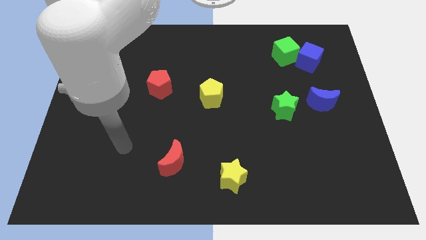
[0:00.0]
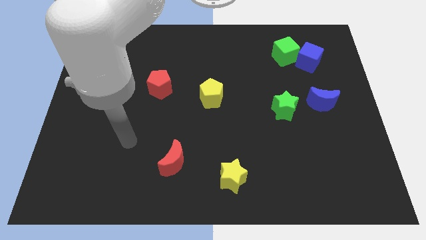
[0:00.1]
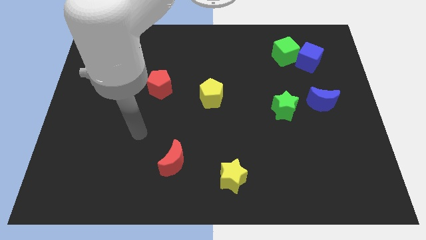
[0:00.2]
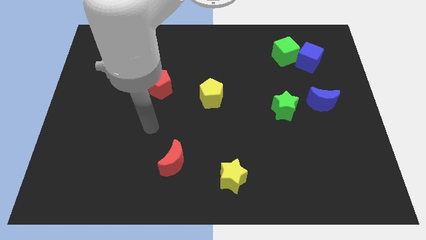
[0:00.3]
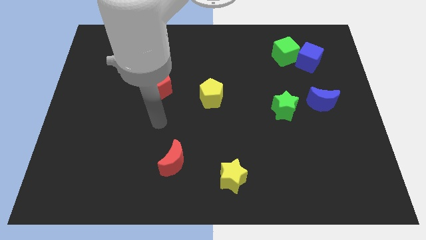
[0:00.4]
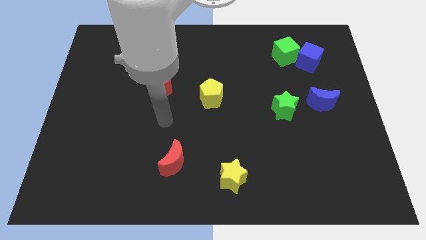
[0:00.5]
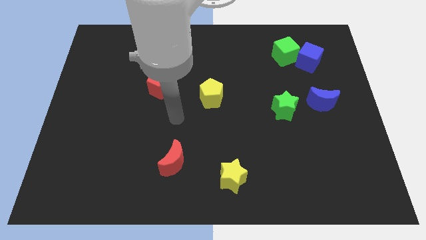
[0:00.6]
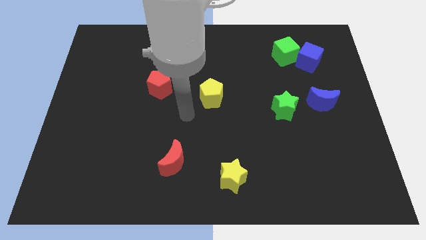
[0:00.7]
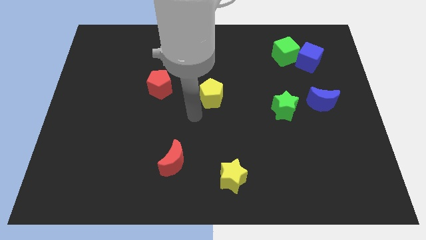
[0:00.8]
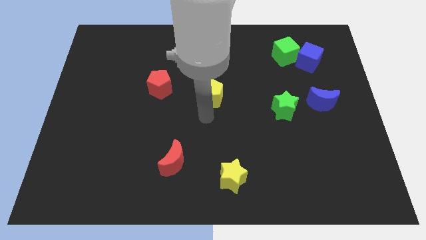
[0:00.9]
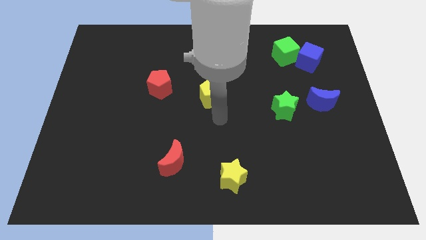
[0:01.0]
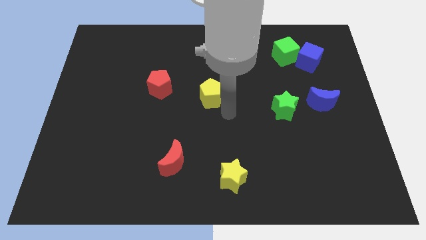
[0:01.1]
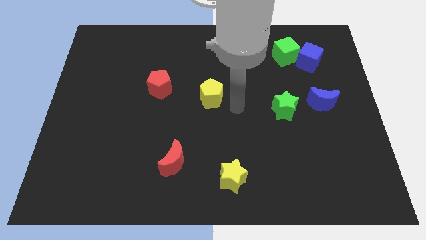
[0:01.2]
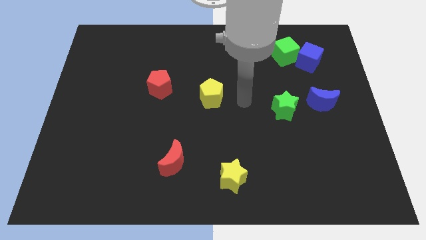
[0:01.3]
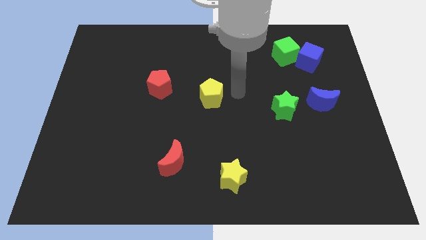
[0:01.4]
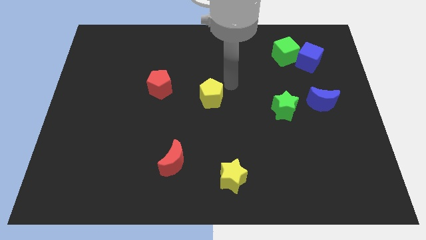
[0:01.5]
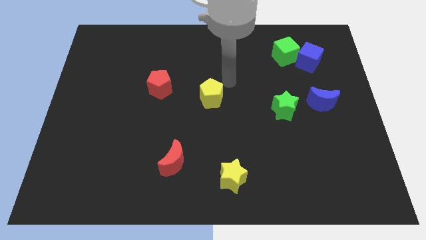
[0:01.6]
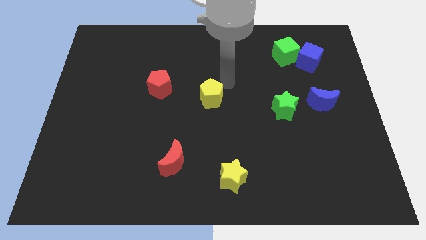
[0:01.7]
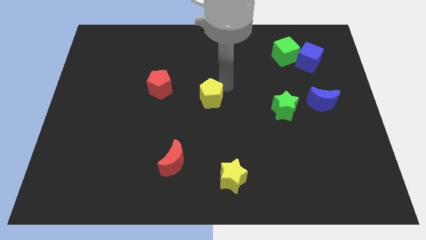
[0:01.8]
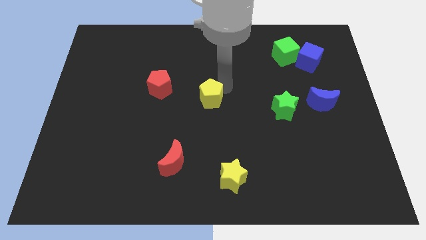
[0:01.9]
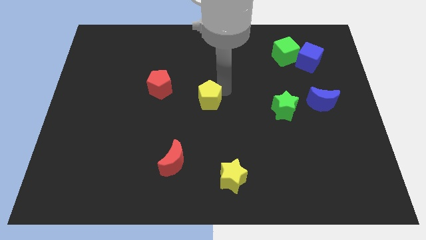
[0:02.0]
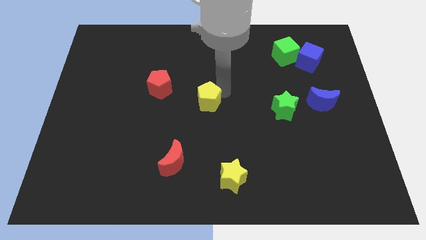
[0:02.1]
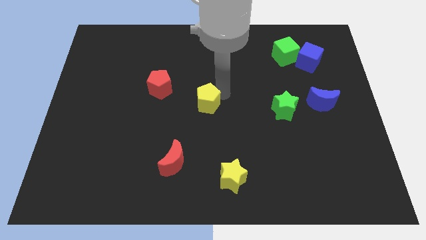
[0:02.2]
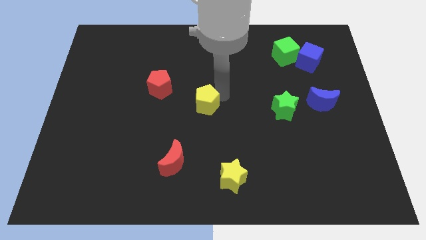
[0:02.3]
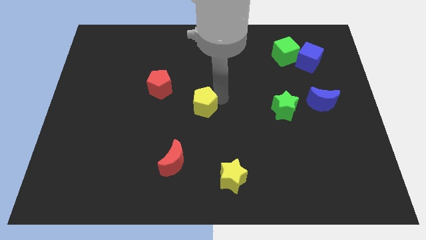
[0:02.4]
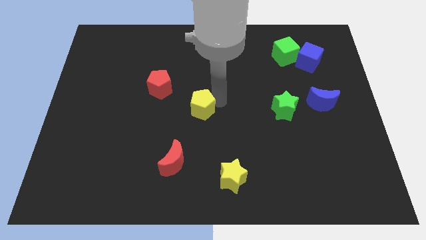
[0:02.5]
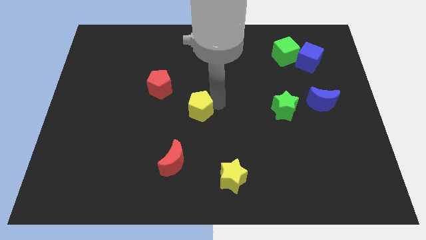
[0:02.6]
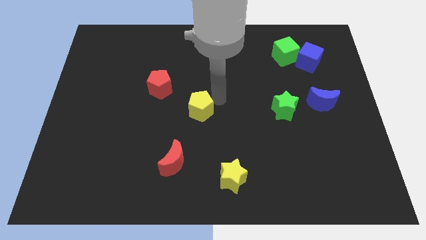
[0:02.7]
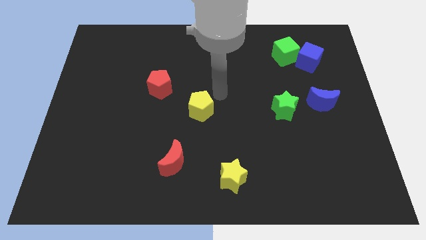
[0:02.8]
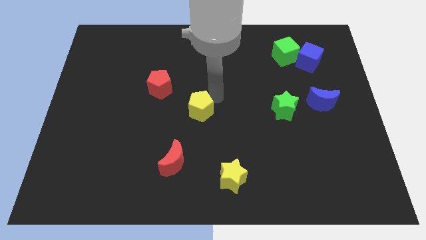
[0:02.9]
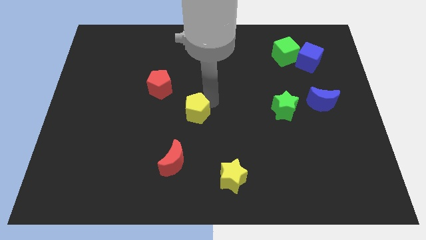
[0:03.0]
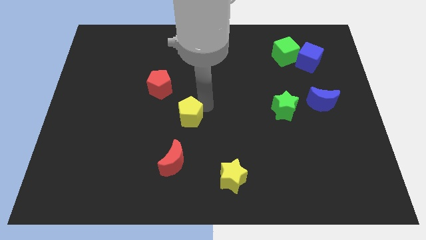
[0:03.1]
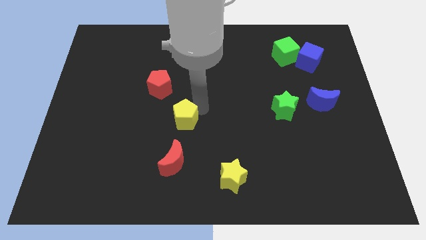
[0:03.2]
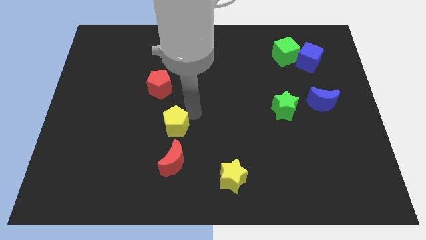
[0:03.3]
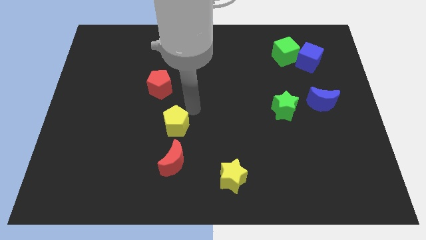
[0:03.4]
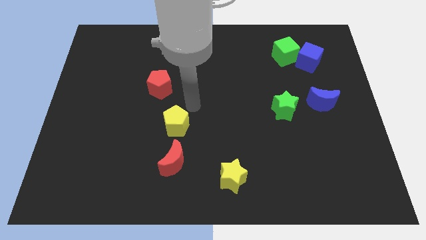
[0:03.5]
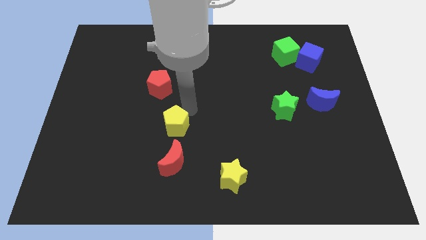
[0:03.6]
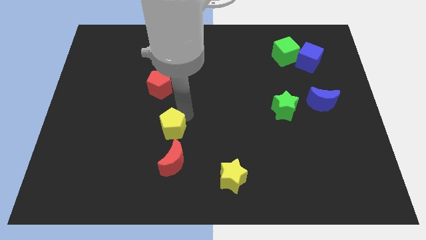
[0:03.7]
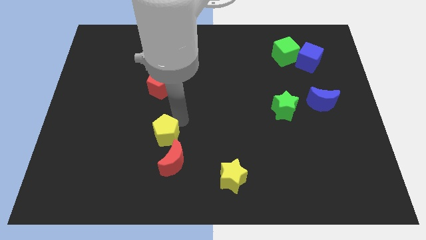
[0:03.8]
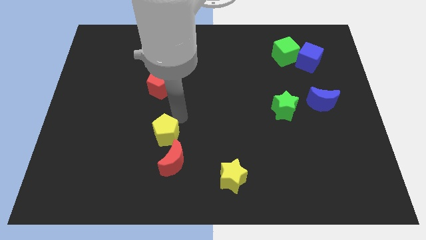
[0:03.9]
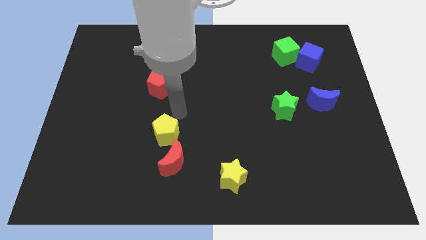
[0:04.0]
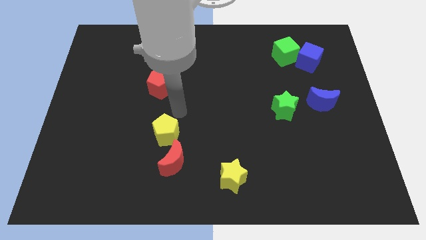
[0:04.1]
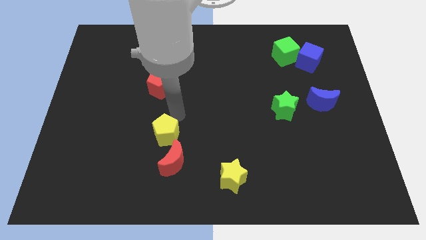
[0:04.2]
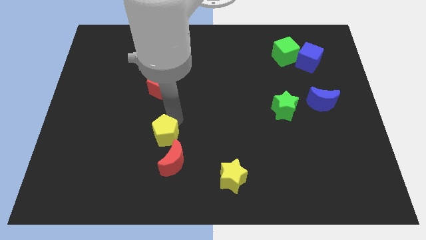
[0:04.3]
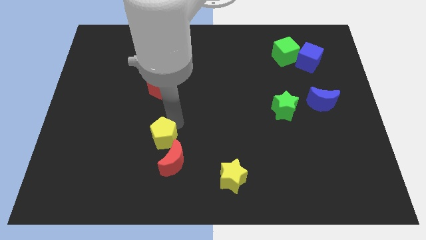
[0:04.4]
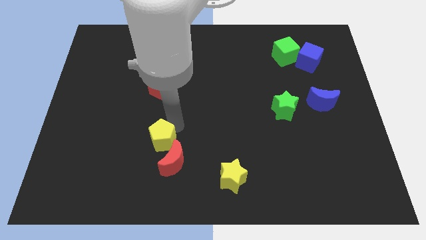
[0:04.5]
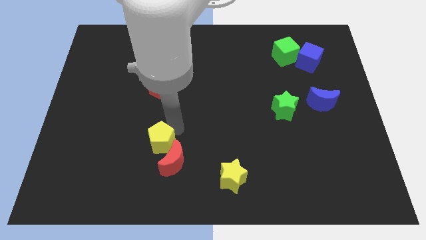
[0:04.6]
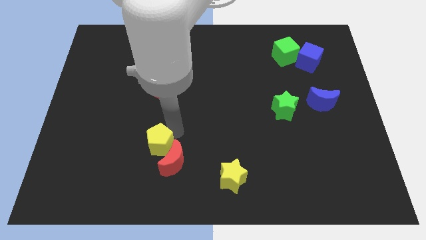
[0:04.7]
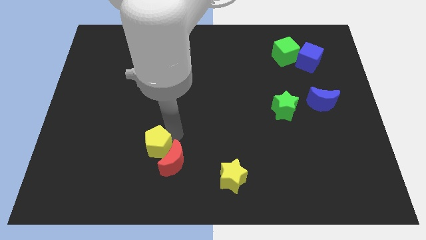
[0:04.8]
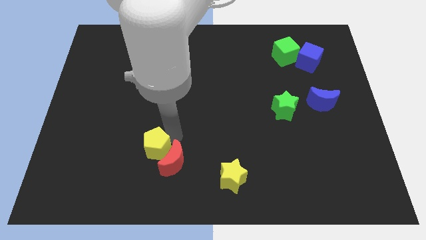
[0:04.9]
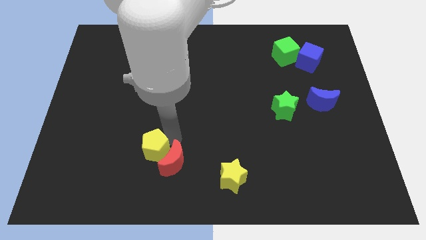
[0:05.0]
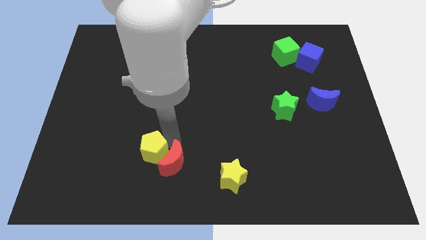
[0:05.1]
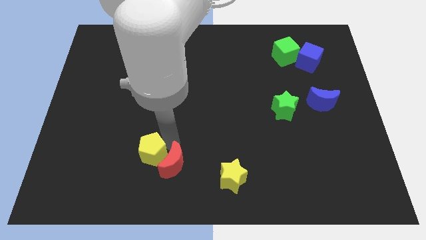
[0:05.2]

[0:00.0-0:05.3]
slide the yellow pentagon down and then left

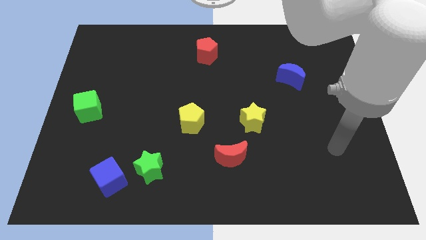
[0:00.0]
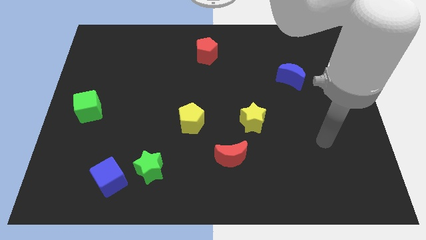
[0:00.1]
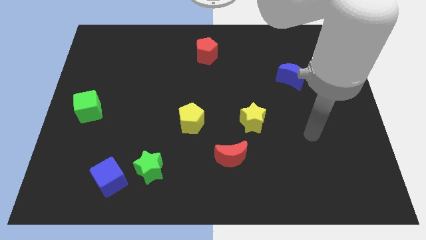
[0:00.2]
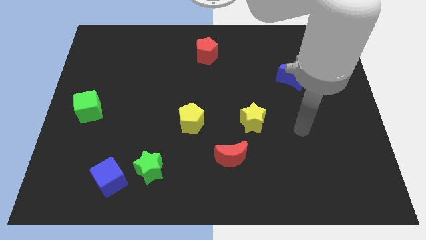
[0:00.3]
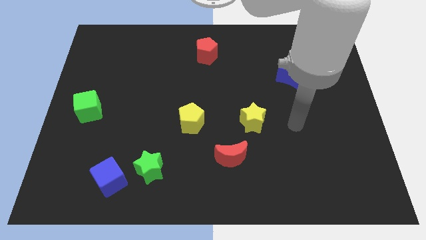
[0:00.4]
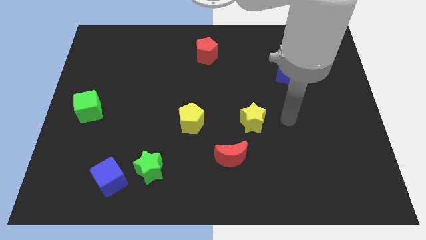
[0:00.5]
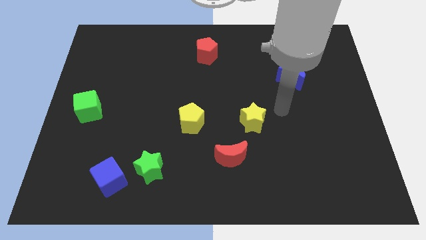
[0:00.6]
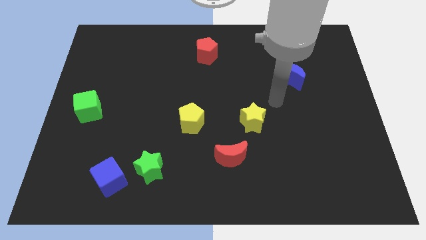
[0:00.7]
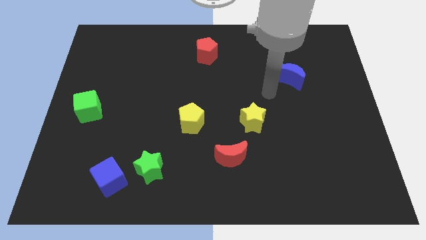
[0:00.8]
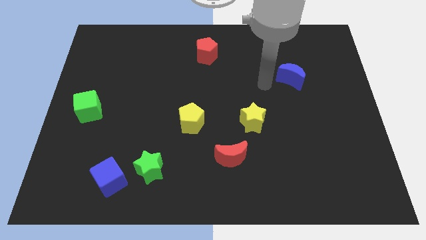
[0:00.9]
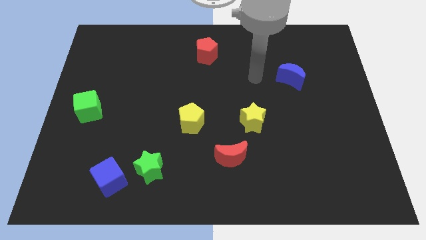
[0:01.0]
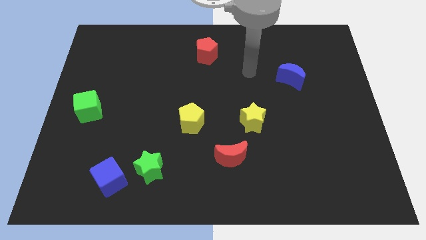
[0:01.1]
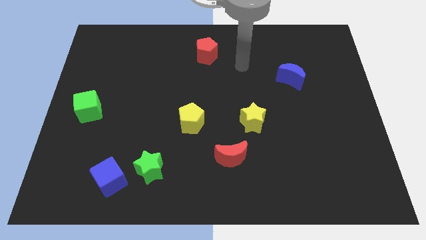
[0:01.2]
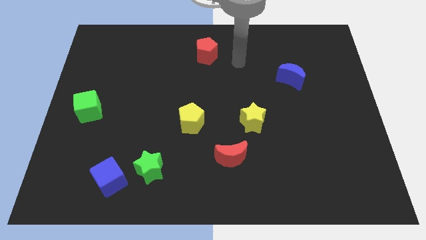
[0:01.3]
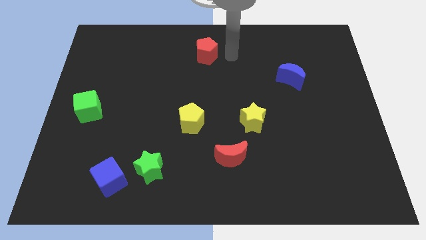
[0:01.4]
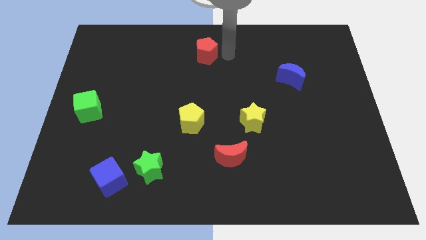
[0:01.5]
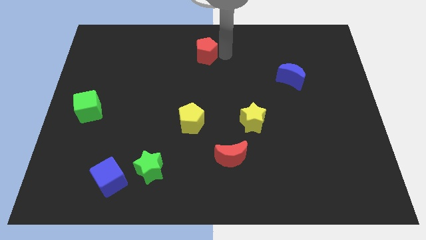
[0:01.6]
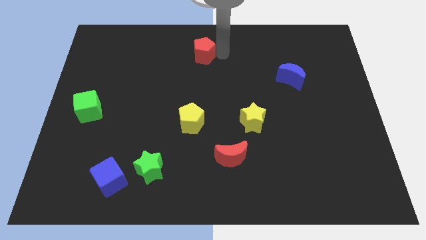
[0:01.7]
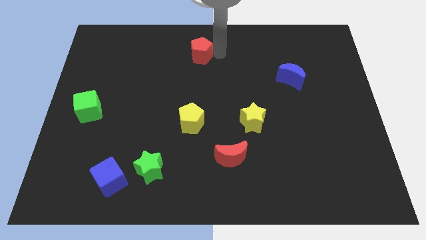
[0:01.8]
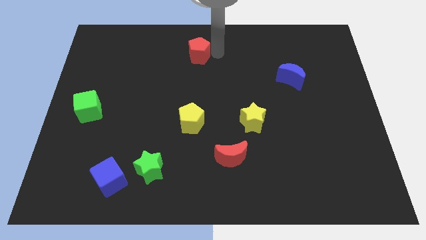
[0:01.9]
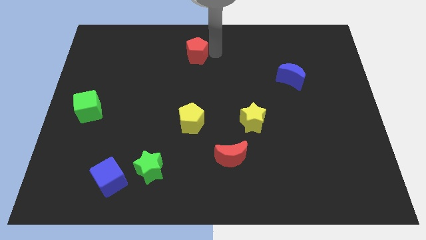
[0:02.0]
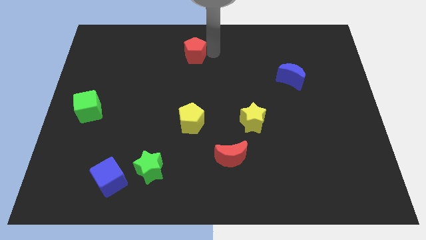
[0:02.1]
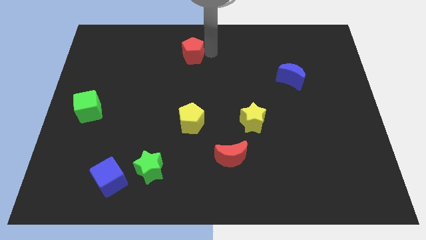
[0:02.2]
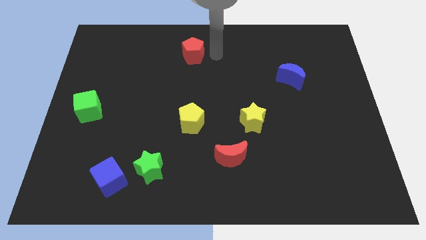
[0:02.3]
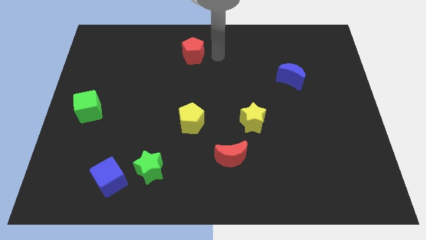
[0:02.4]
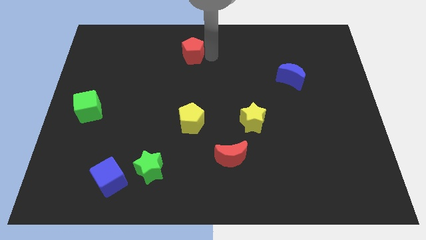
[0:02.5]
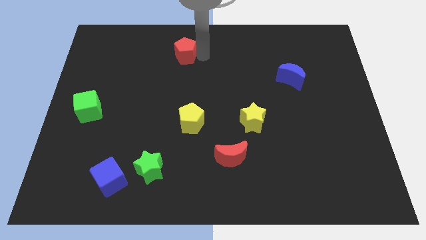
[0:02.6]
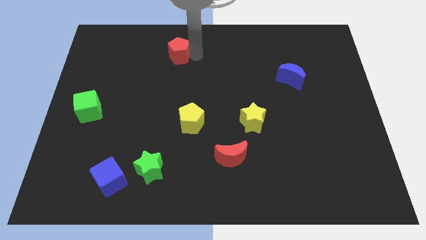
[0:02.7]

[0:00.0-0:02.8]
slightly move the red pentagon left

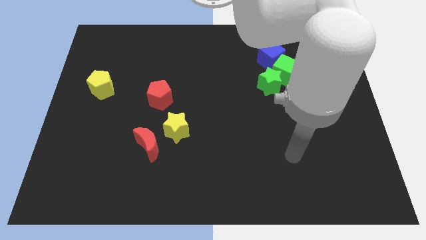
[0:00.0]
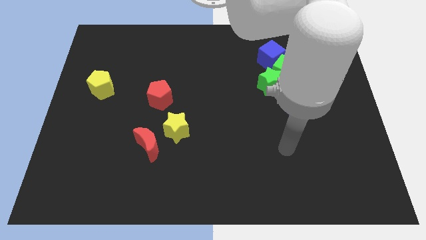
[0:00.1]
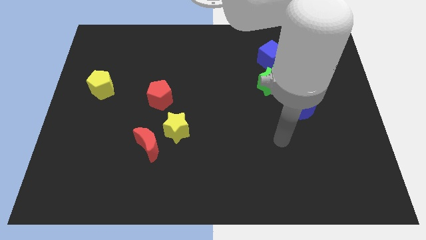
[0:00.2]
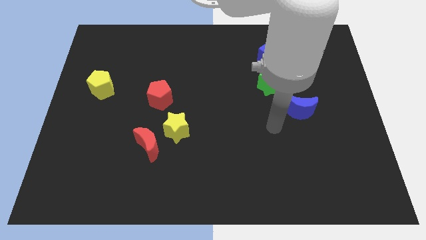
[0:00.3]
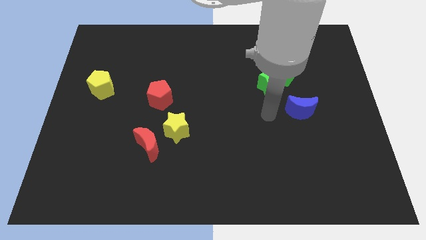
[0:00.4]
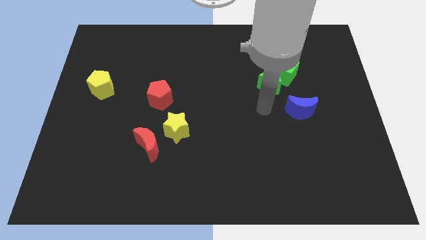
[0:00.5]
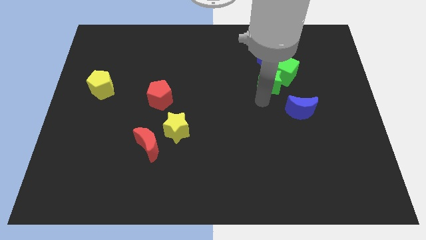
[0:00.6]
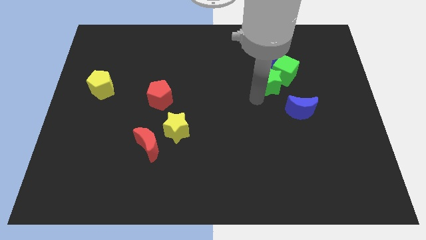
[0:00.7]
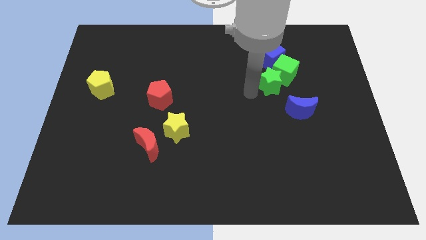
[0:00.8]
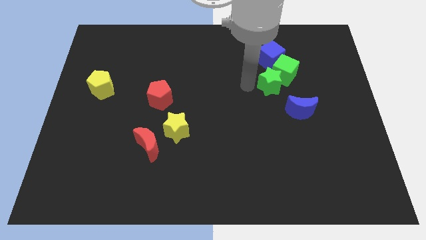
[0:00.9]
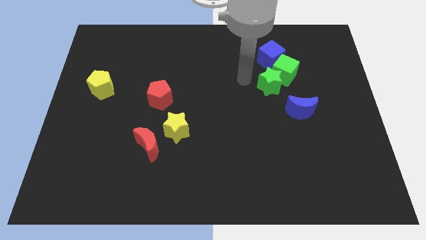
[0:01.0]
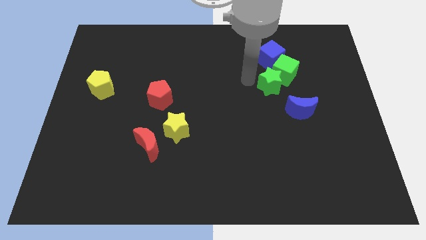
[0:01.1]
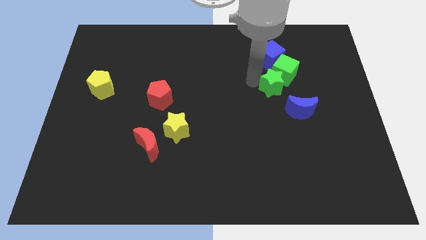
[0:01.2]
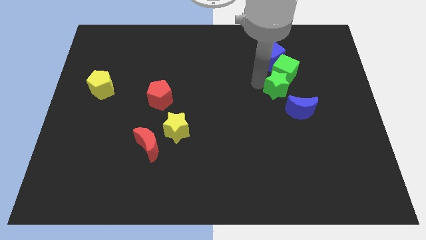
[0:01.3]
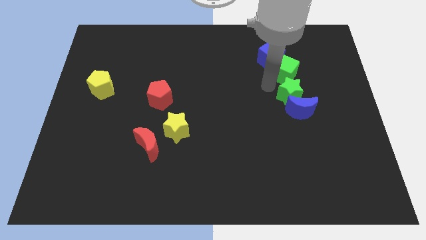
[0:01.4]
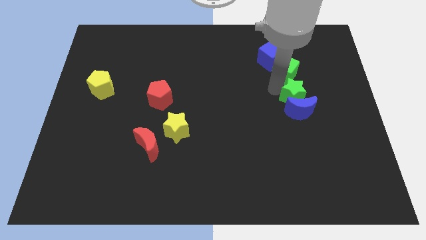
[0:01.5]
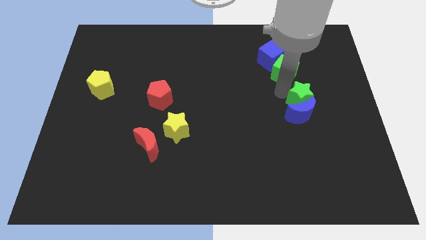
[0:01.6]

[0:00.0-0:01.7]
push the green star diagonally downwards and right a bit
